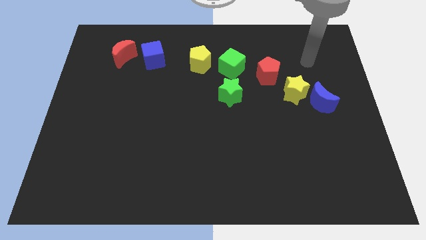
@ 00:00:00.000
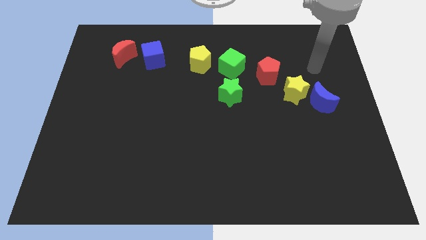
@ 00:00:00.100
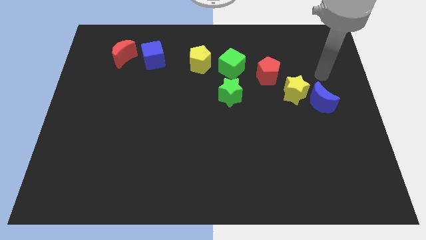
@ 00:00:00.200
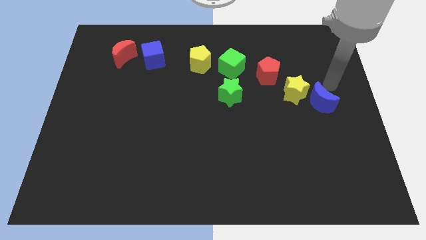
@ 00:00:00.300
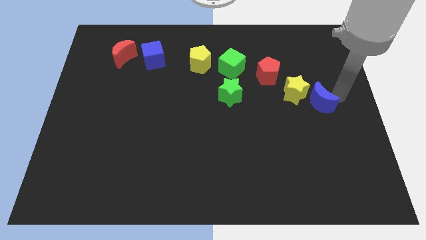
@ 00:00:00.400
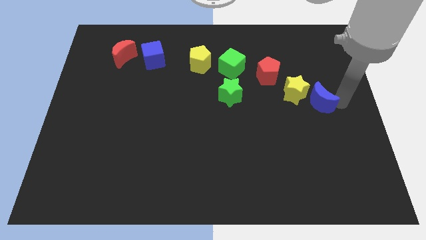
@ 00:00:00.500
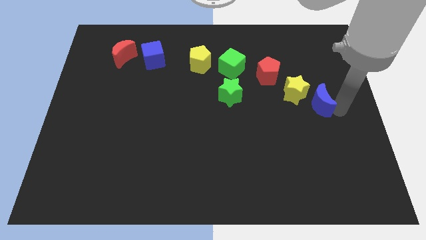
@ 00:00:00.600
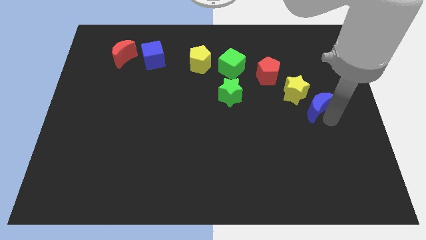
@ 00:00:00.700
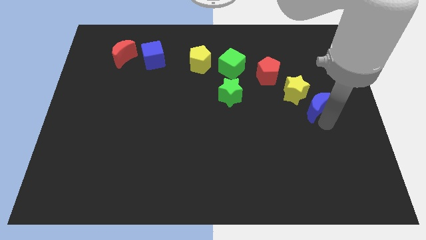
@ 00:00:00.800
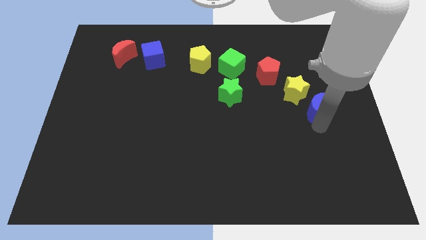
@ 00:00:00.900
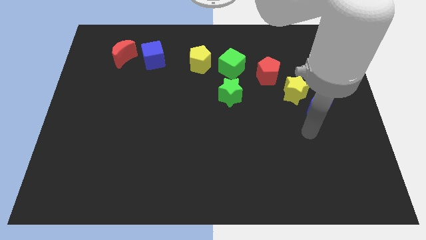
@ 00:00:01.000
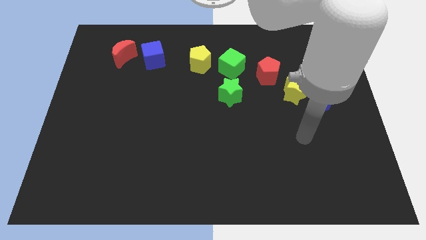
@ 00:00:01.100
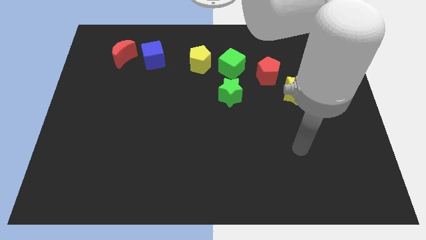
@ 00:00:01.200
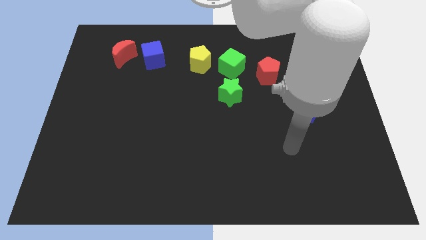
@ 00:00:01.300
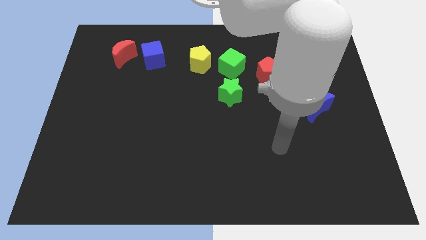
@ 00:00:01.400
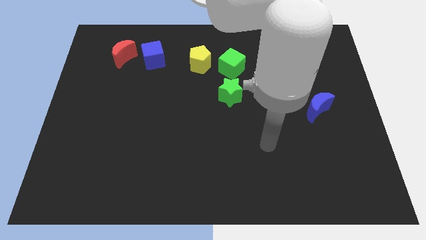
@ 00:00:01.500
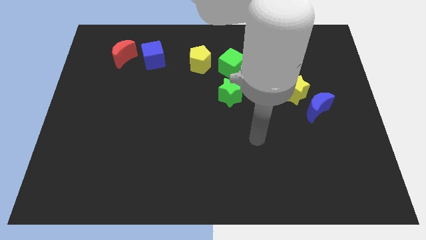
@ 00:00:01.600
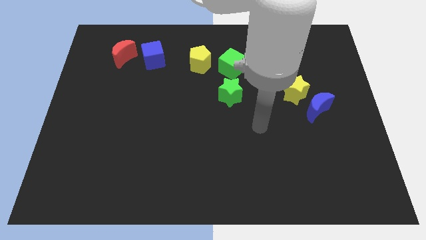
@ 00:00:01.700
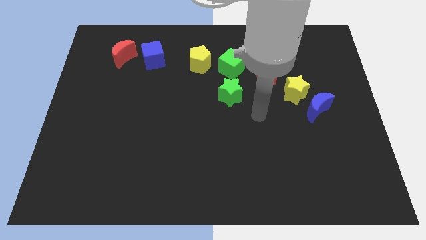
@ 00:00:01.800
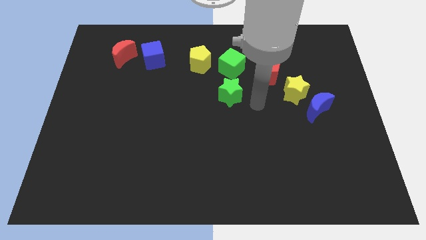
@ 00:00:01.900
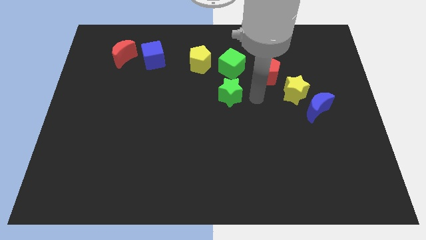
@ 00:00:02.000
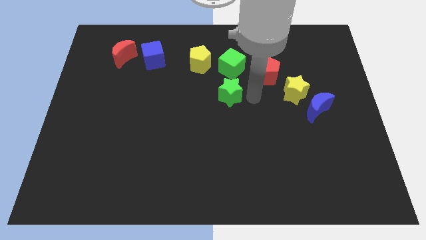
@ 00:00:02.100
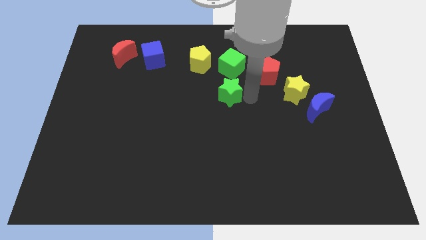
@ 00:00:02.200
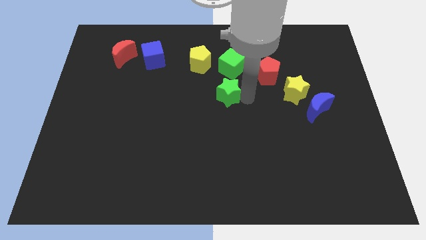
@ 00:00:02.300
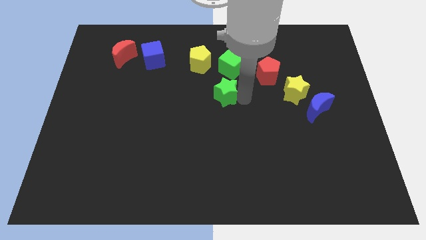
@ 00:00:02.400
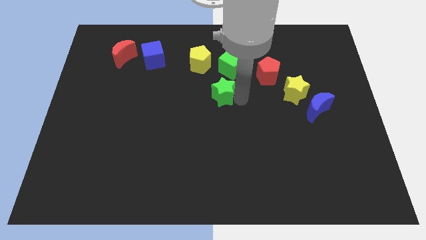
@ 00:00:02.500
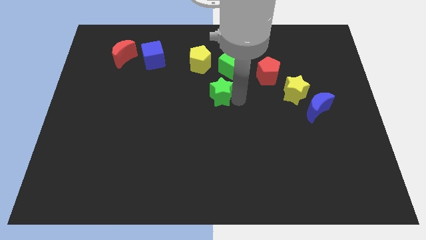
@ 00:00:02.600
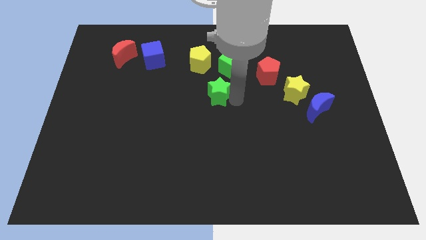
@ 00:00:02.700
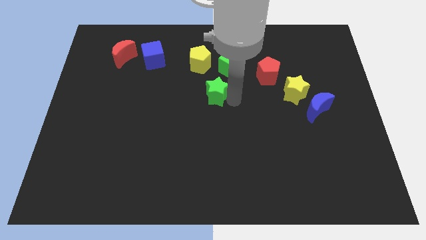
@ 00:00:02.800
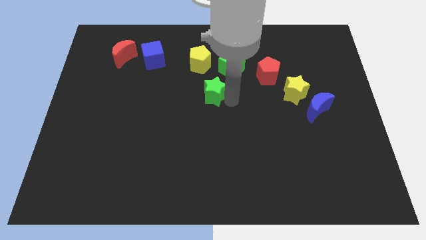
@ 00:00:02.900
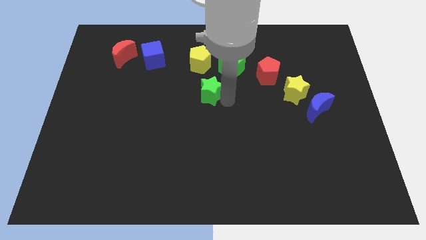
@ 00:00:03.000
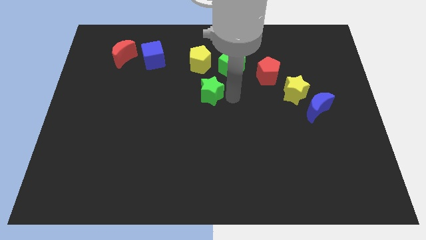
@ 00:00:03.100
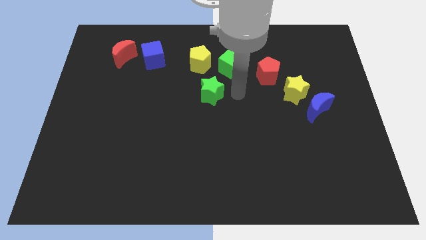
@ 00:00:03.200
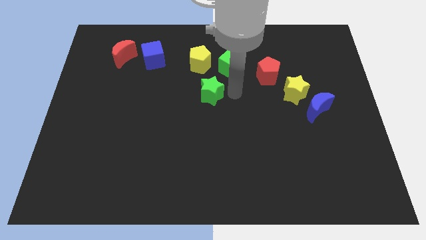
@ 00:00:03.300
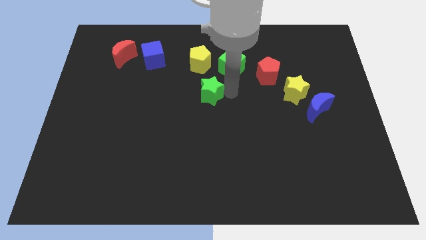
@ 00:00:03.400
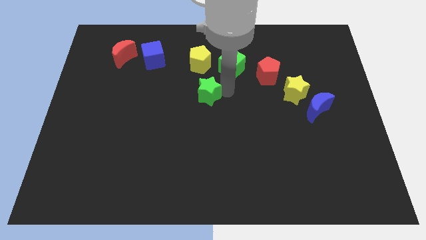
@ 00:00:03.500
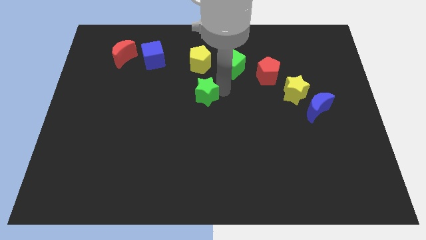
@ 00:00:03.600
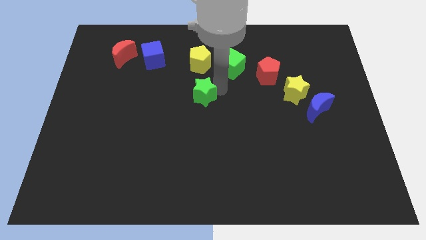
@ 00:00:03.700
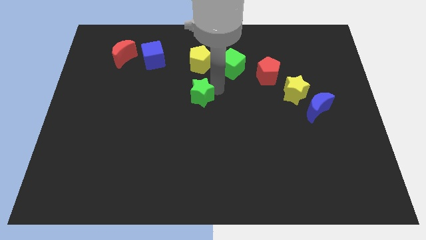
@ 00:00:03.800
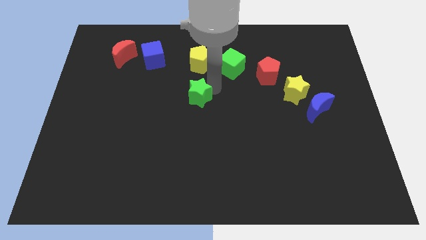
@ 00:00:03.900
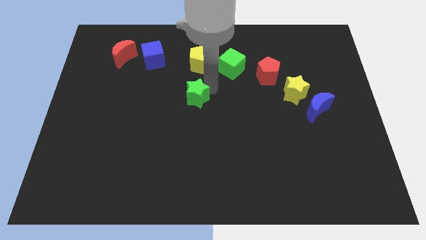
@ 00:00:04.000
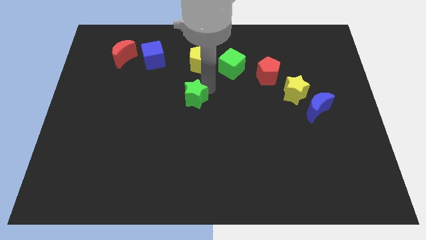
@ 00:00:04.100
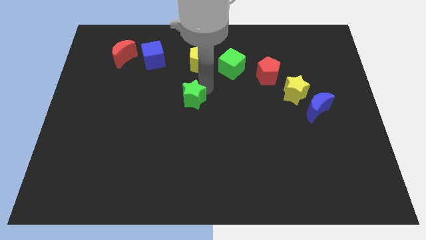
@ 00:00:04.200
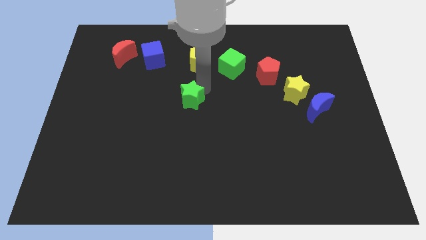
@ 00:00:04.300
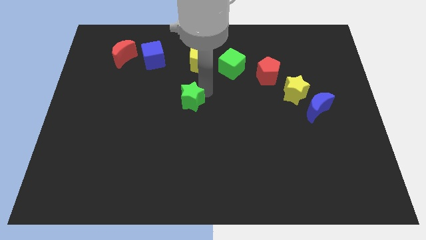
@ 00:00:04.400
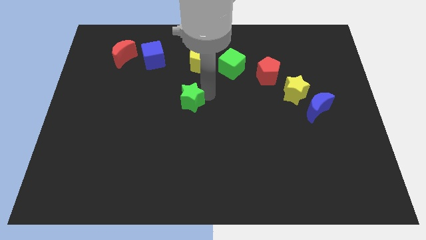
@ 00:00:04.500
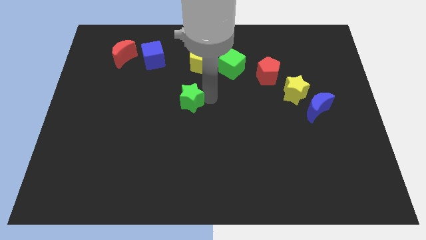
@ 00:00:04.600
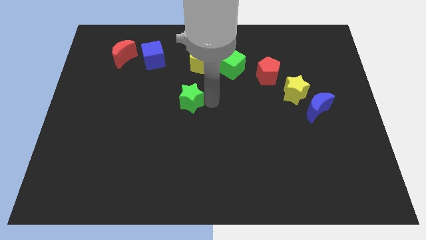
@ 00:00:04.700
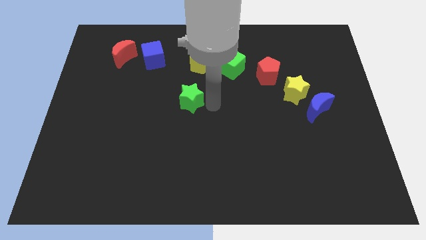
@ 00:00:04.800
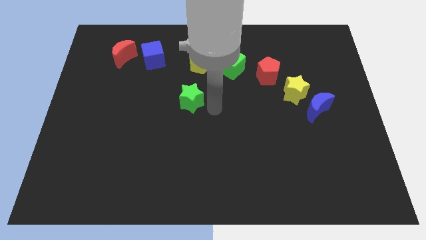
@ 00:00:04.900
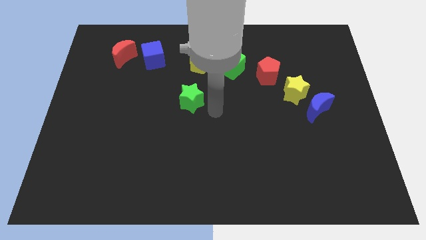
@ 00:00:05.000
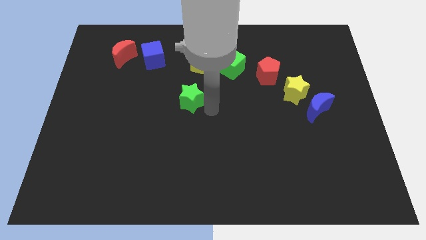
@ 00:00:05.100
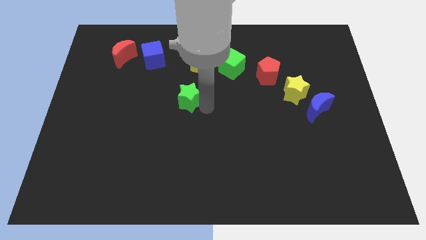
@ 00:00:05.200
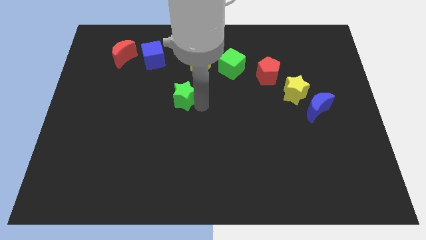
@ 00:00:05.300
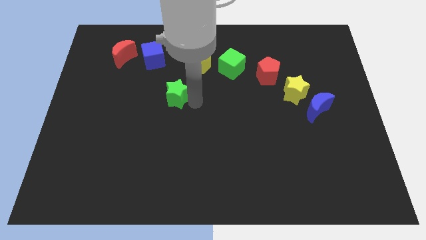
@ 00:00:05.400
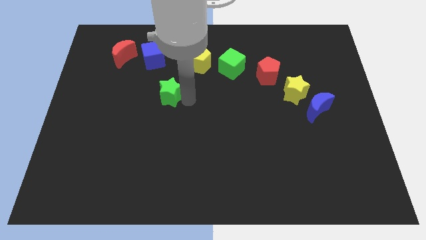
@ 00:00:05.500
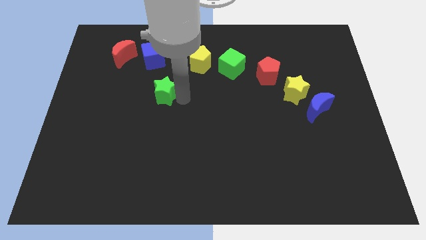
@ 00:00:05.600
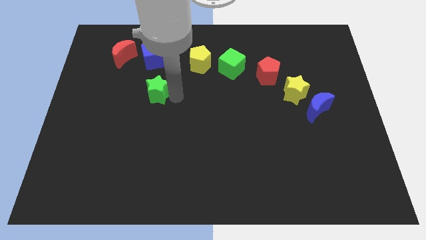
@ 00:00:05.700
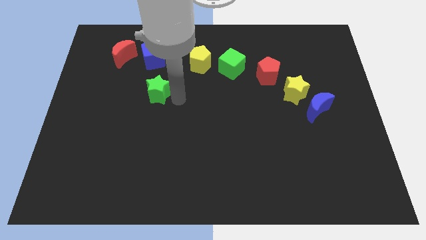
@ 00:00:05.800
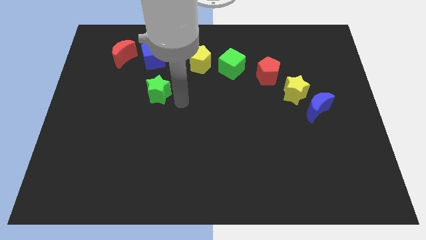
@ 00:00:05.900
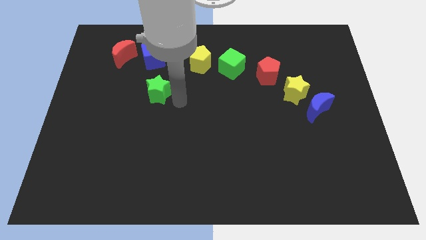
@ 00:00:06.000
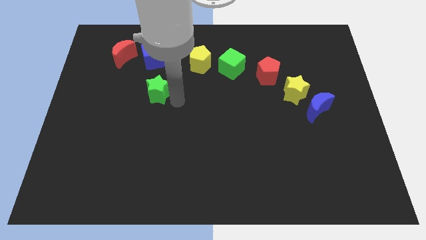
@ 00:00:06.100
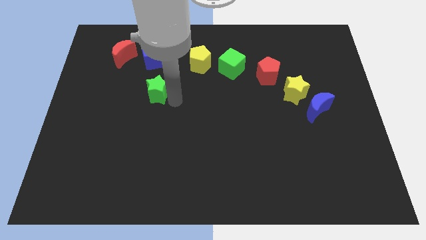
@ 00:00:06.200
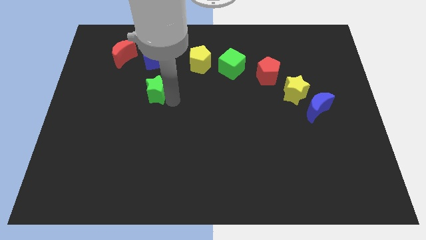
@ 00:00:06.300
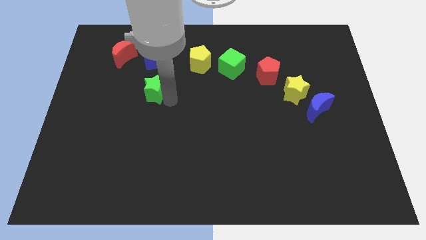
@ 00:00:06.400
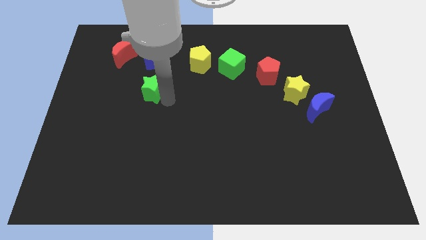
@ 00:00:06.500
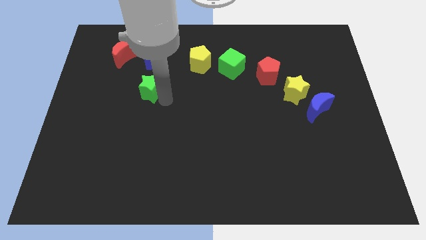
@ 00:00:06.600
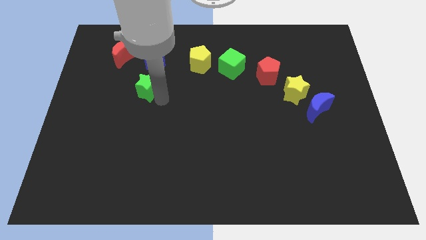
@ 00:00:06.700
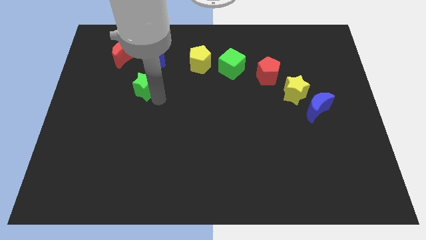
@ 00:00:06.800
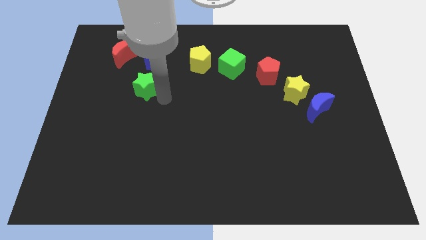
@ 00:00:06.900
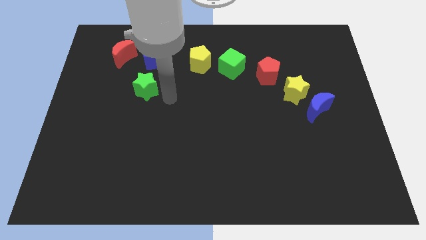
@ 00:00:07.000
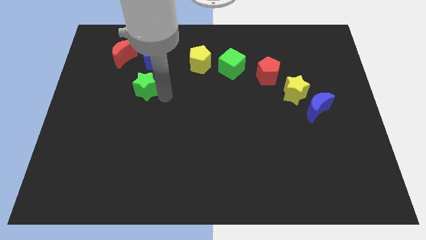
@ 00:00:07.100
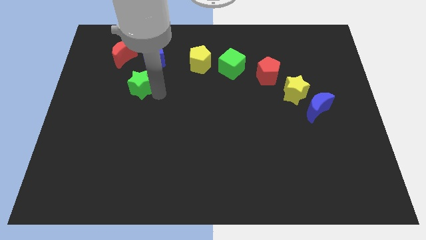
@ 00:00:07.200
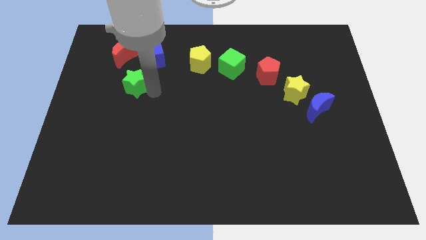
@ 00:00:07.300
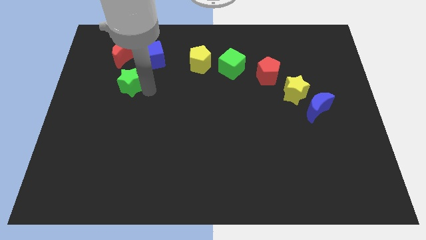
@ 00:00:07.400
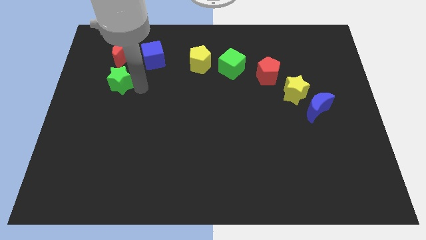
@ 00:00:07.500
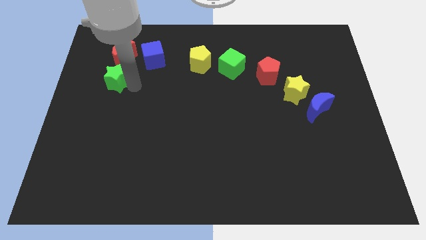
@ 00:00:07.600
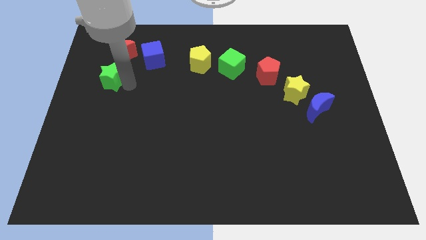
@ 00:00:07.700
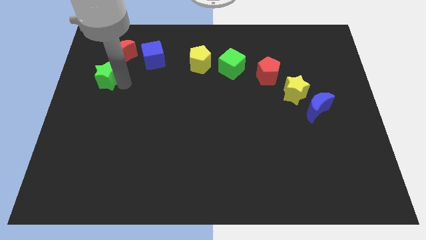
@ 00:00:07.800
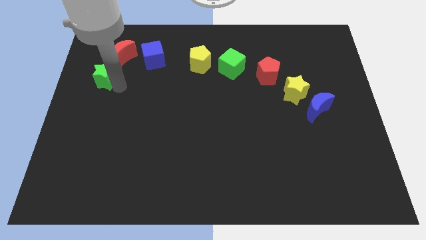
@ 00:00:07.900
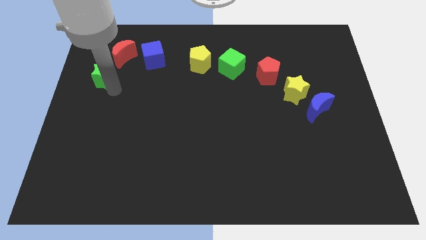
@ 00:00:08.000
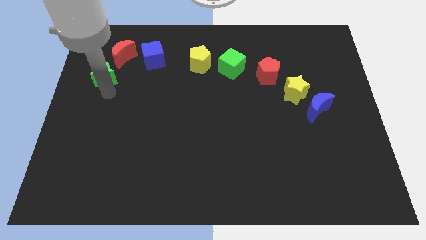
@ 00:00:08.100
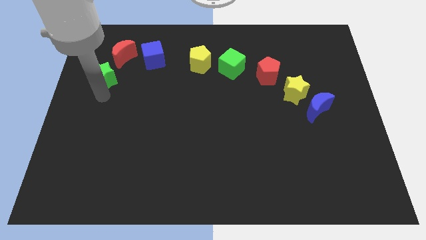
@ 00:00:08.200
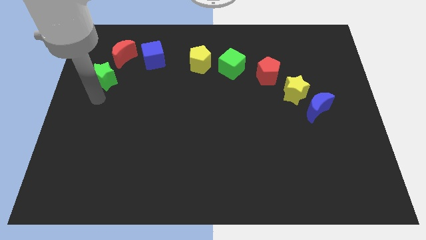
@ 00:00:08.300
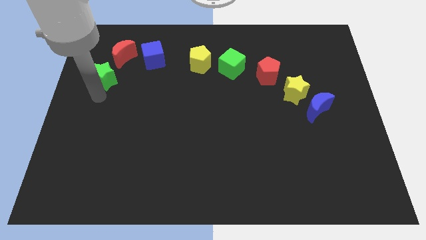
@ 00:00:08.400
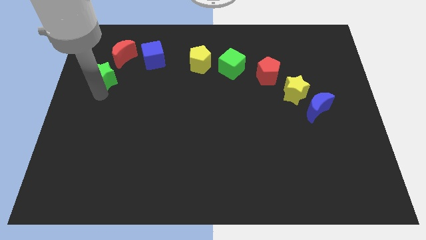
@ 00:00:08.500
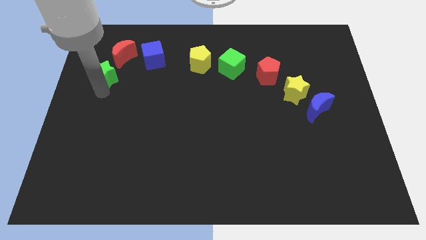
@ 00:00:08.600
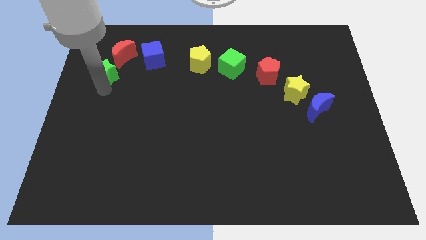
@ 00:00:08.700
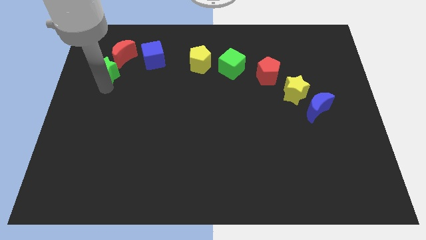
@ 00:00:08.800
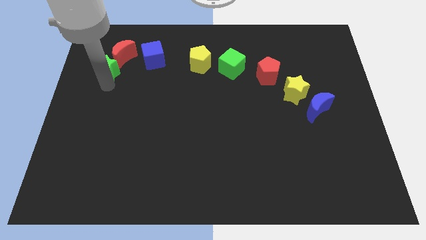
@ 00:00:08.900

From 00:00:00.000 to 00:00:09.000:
push the green star to the left side of the blue cube
